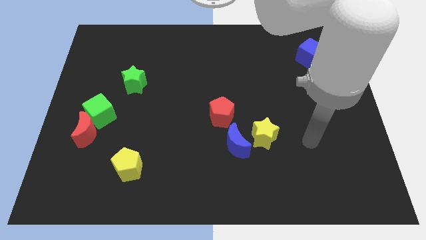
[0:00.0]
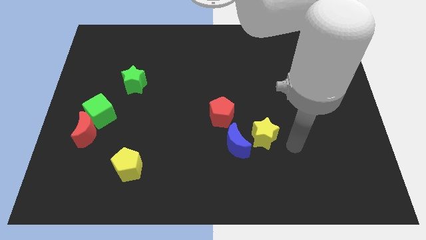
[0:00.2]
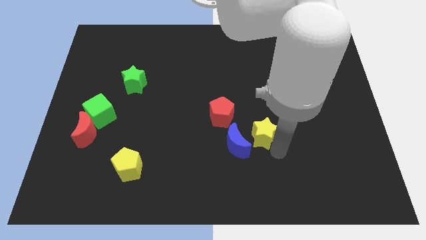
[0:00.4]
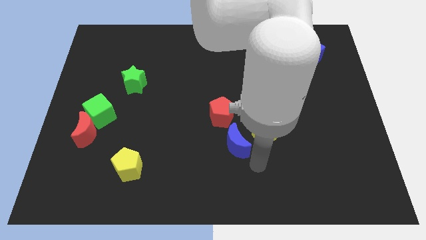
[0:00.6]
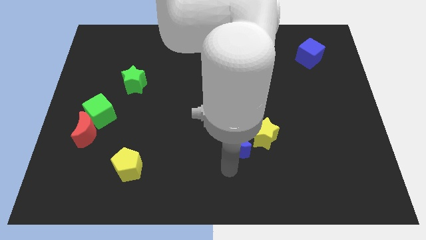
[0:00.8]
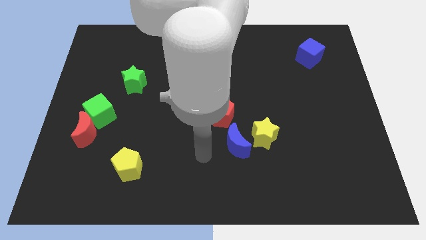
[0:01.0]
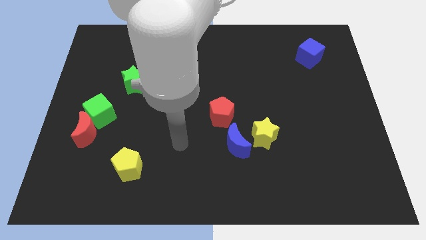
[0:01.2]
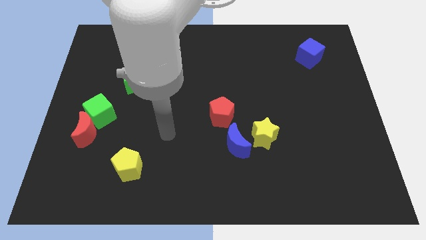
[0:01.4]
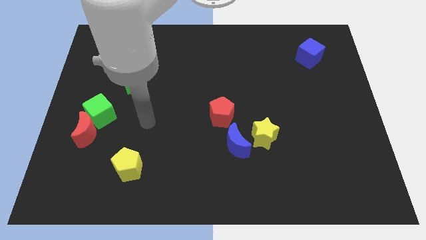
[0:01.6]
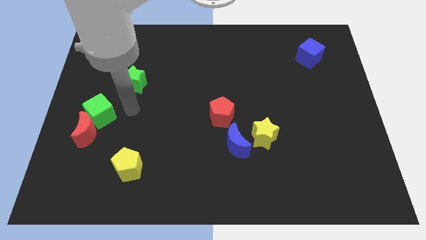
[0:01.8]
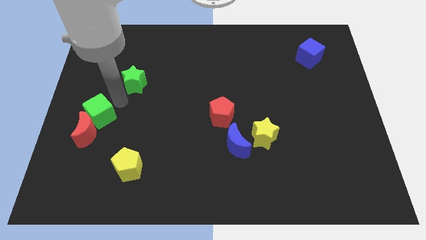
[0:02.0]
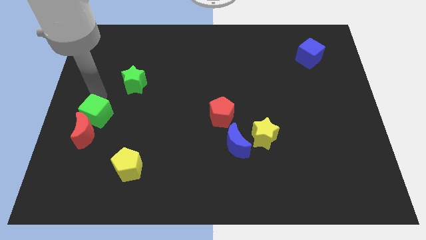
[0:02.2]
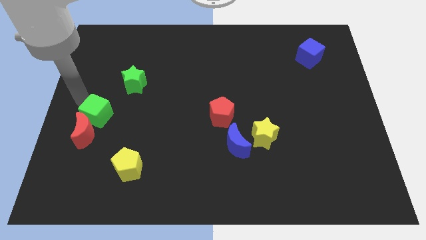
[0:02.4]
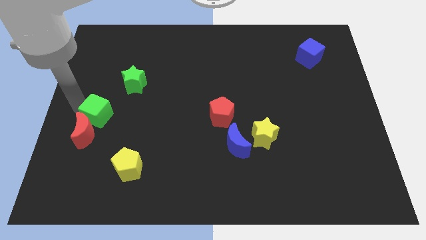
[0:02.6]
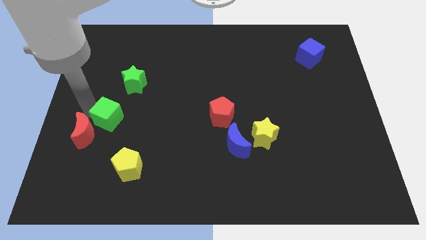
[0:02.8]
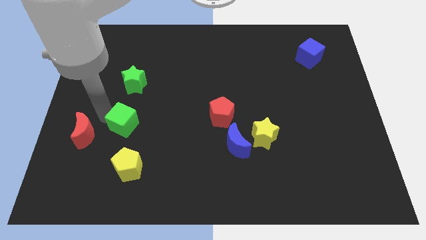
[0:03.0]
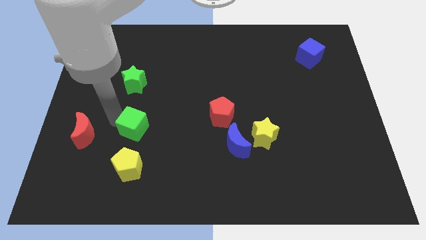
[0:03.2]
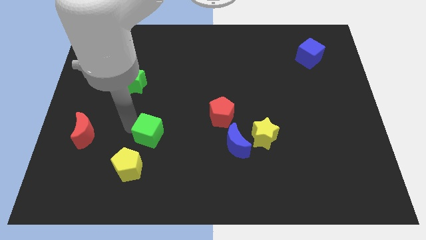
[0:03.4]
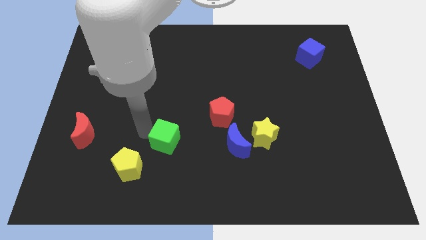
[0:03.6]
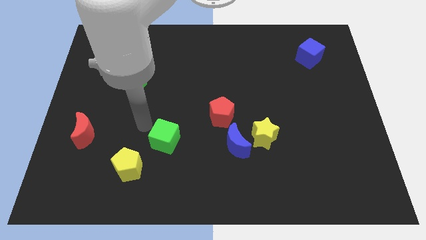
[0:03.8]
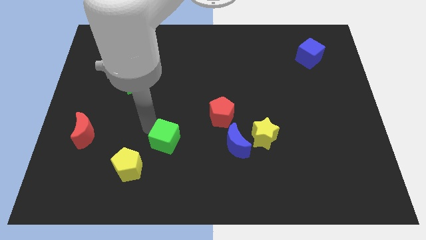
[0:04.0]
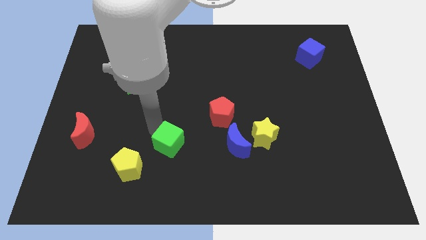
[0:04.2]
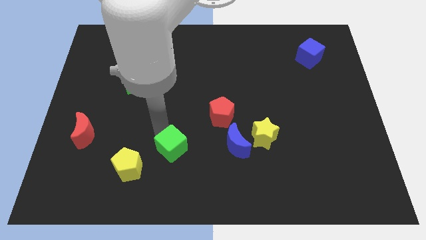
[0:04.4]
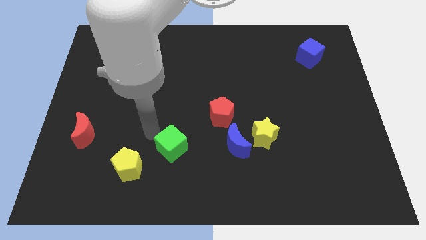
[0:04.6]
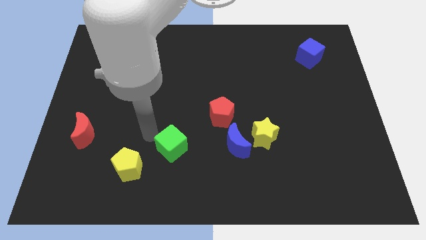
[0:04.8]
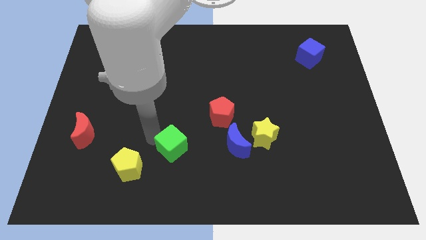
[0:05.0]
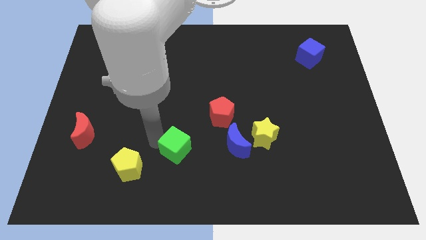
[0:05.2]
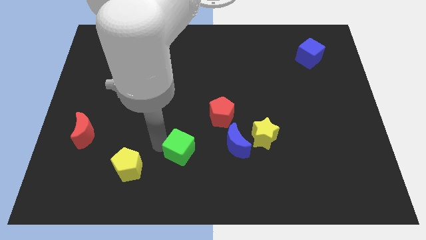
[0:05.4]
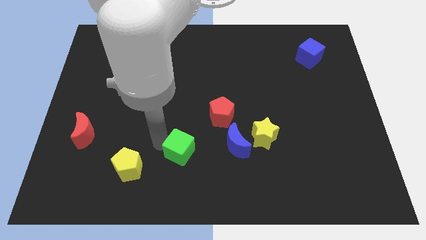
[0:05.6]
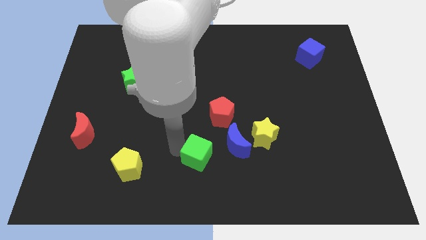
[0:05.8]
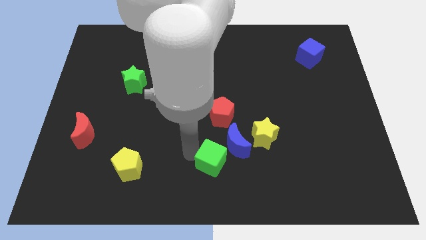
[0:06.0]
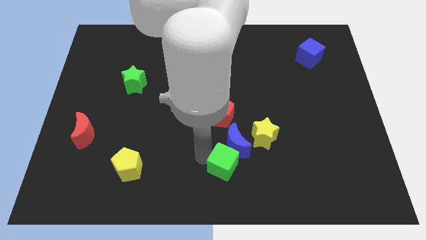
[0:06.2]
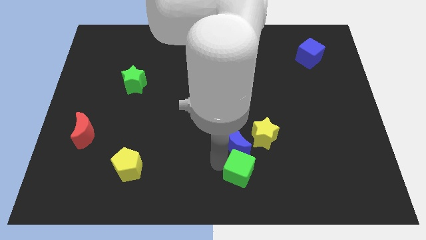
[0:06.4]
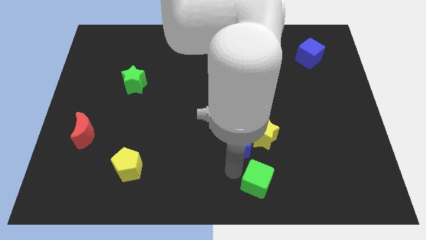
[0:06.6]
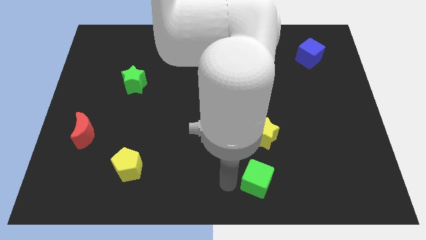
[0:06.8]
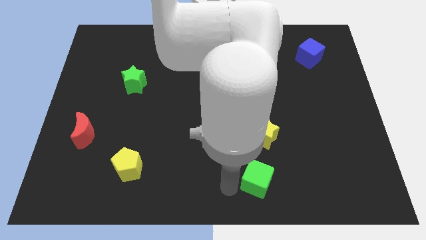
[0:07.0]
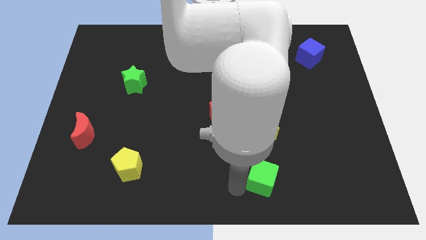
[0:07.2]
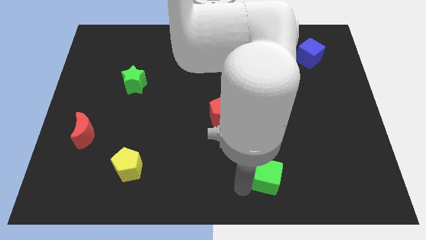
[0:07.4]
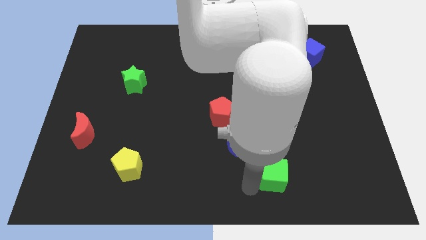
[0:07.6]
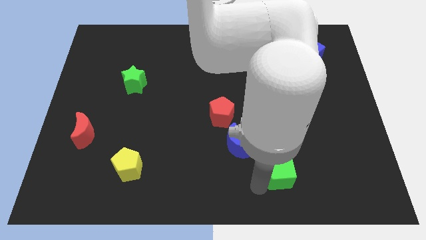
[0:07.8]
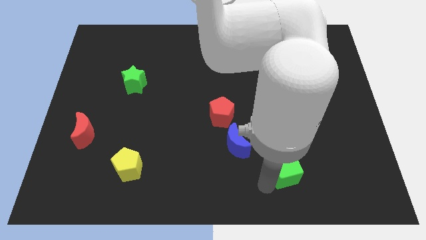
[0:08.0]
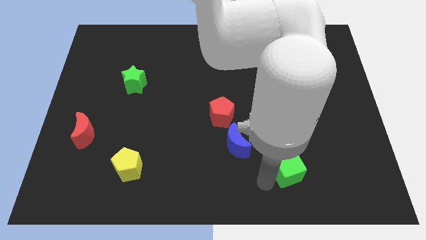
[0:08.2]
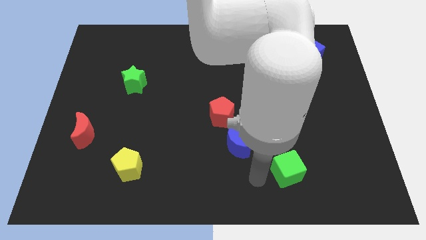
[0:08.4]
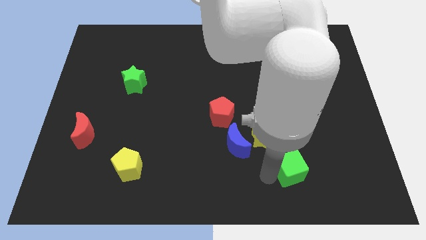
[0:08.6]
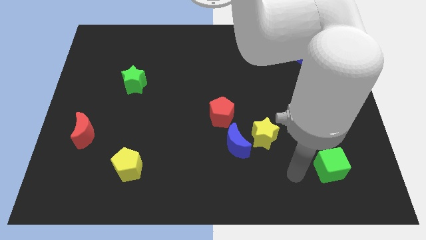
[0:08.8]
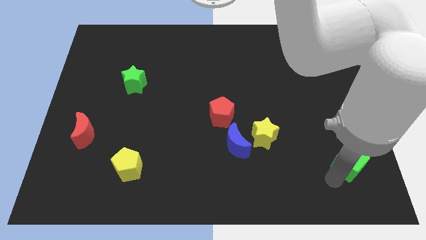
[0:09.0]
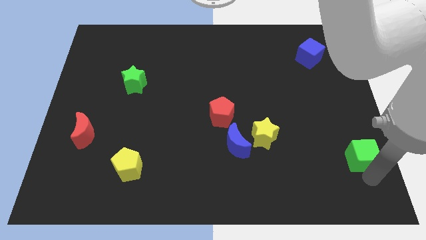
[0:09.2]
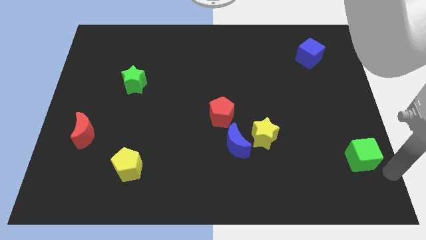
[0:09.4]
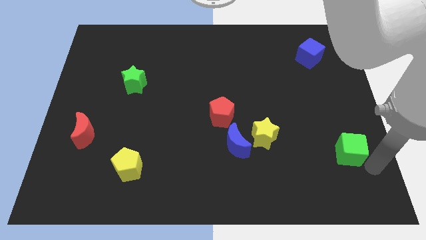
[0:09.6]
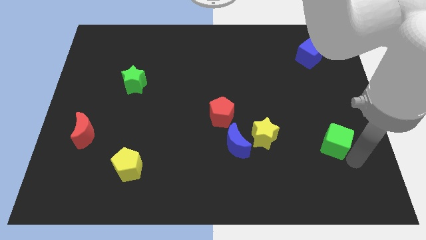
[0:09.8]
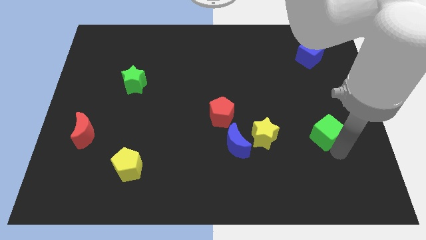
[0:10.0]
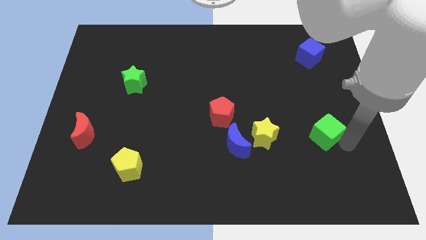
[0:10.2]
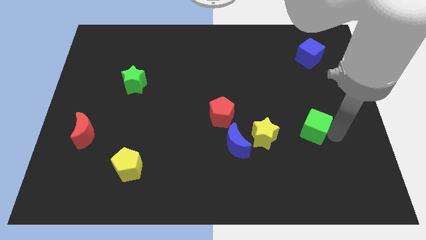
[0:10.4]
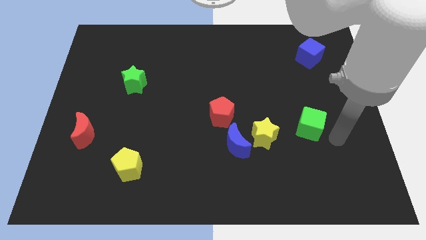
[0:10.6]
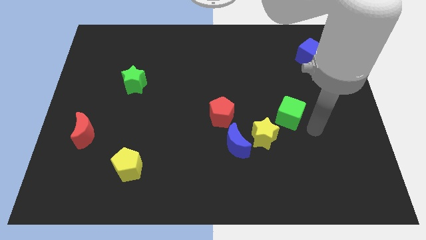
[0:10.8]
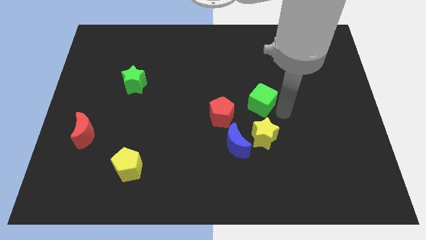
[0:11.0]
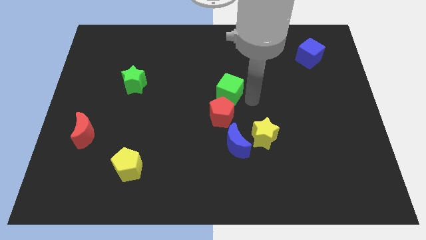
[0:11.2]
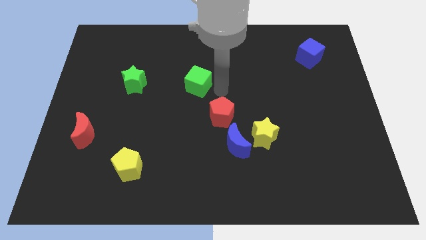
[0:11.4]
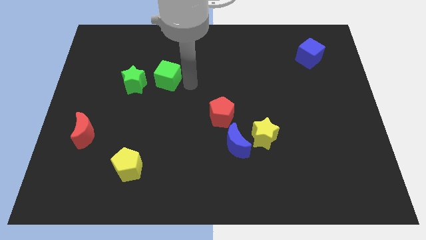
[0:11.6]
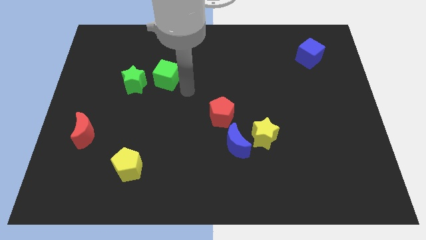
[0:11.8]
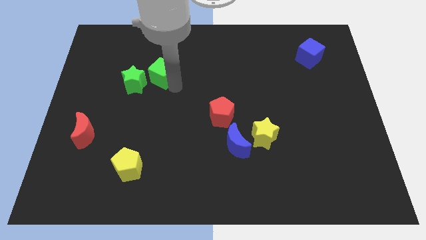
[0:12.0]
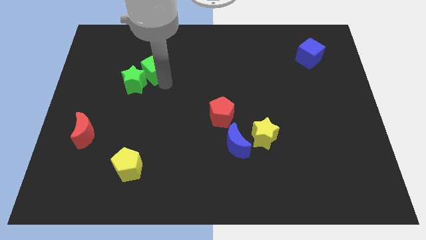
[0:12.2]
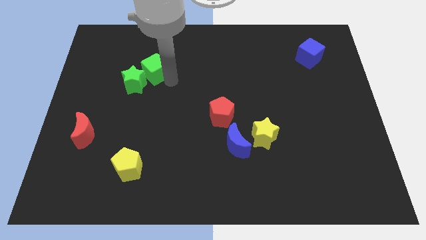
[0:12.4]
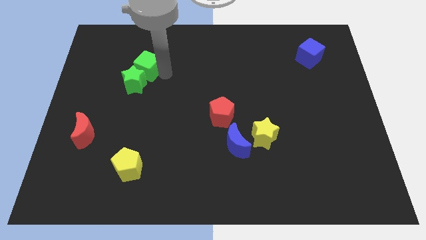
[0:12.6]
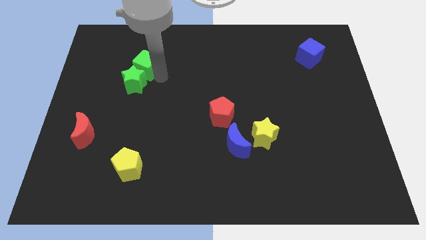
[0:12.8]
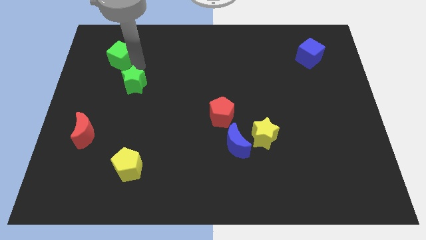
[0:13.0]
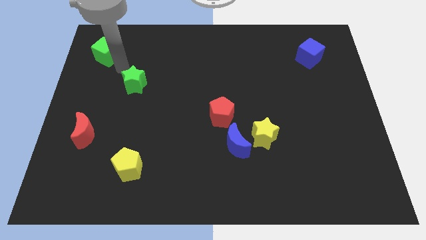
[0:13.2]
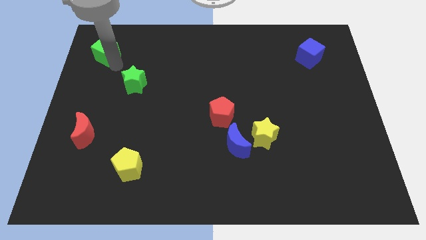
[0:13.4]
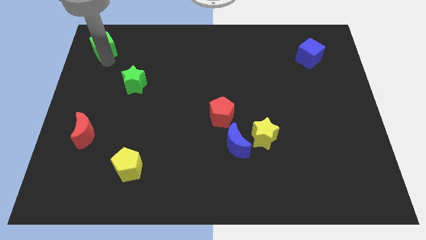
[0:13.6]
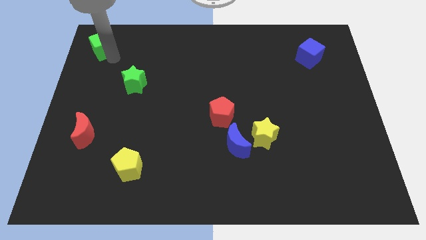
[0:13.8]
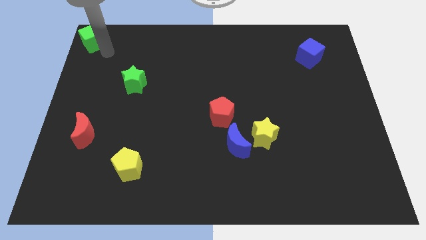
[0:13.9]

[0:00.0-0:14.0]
push the green cube to the top left corner
